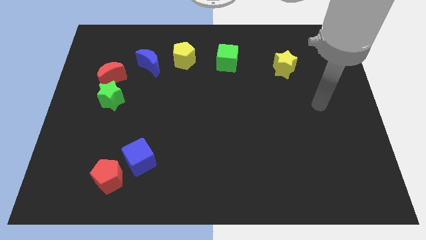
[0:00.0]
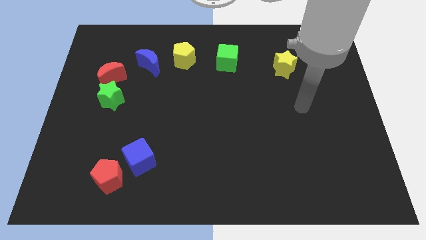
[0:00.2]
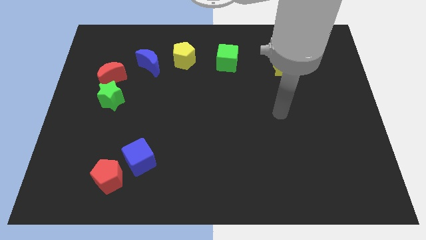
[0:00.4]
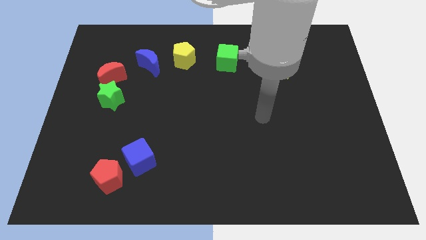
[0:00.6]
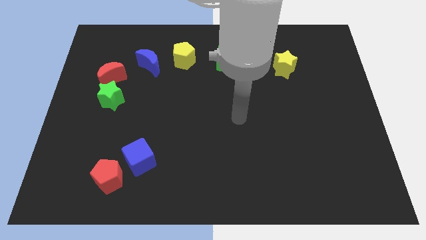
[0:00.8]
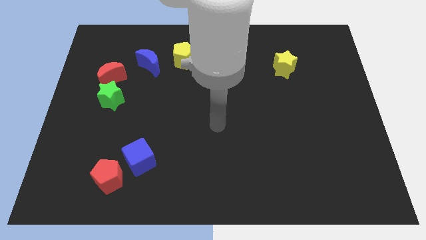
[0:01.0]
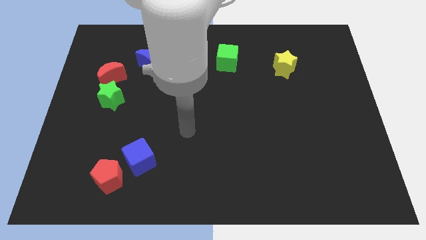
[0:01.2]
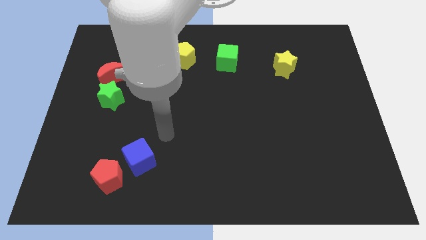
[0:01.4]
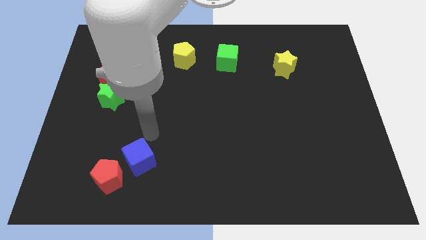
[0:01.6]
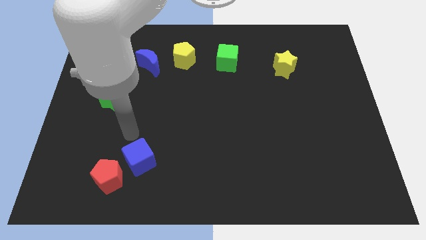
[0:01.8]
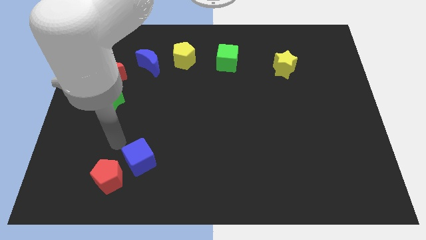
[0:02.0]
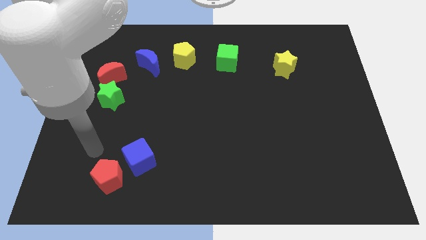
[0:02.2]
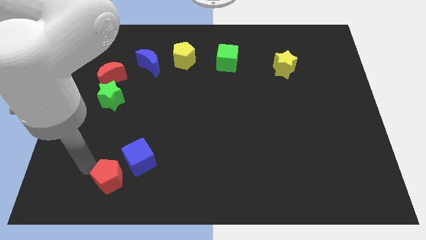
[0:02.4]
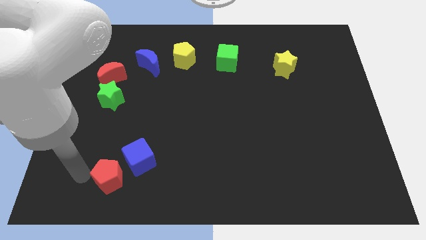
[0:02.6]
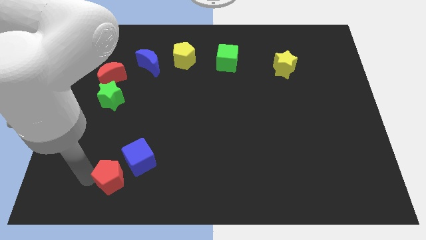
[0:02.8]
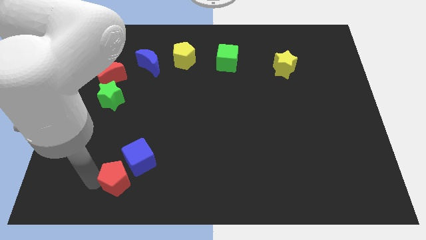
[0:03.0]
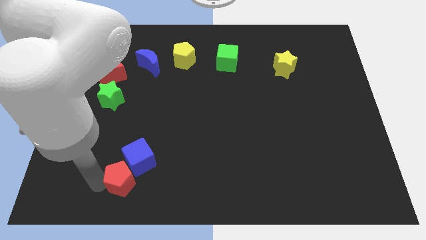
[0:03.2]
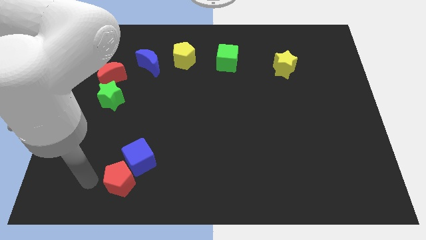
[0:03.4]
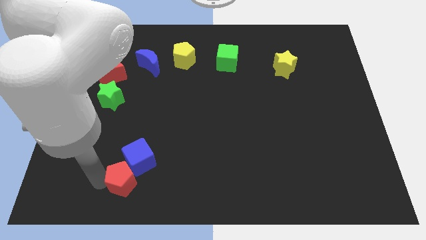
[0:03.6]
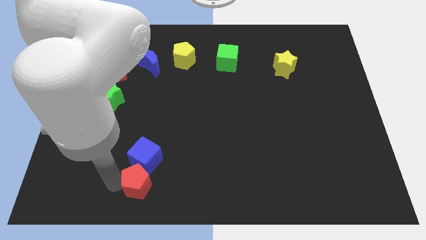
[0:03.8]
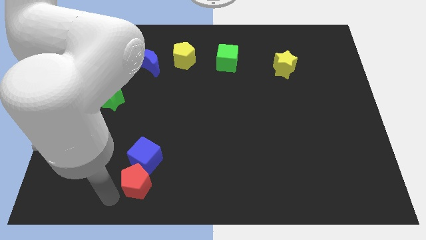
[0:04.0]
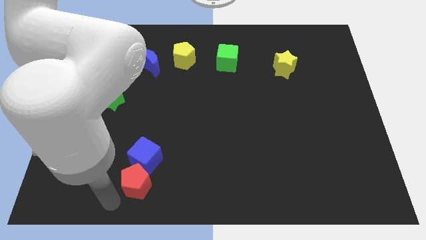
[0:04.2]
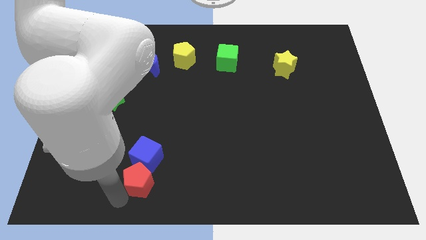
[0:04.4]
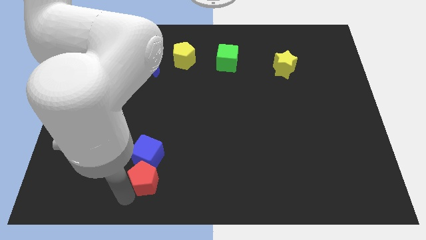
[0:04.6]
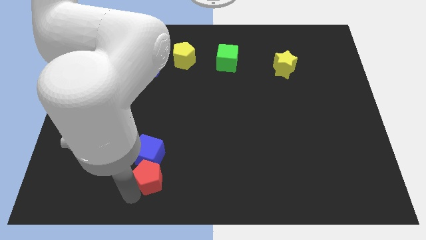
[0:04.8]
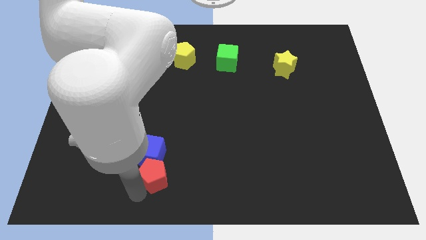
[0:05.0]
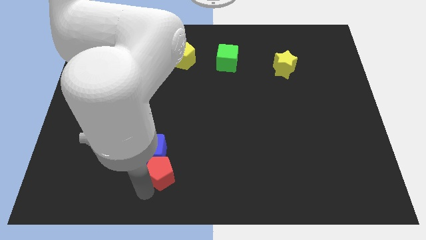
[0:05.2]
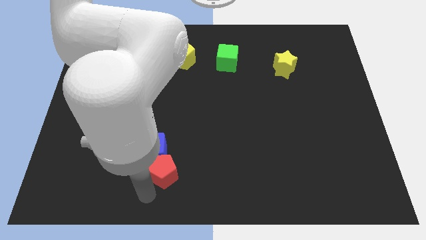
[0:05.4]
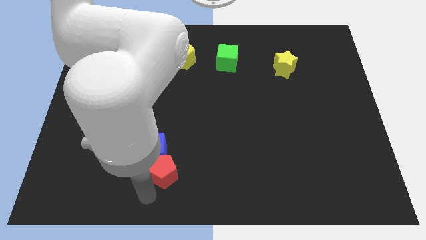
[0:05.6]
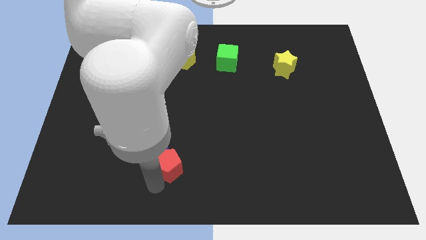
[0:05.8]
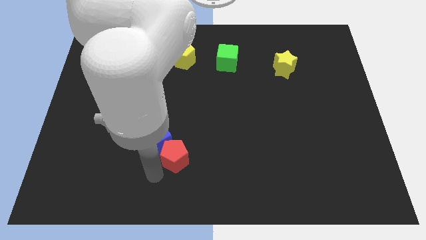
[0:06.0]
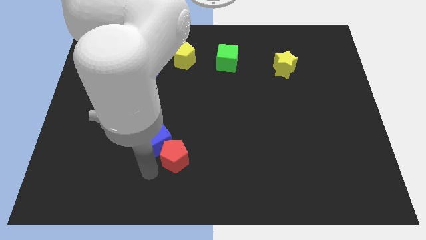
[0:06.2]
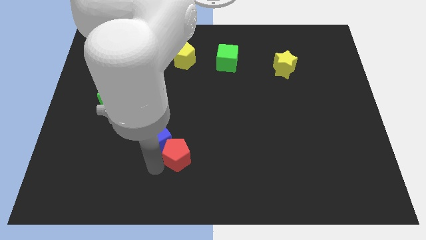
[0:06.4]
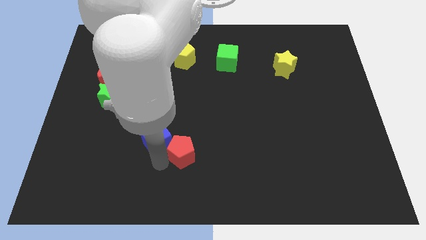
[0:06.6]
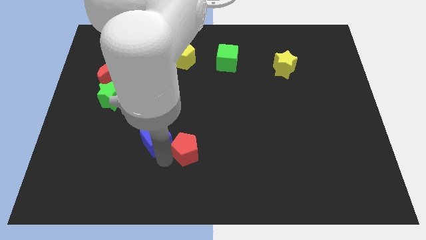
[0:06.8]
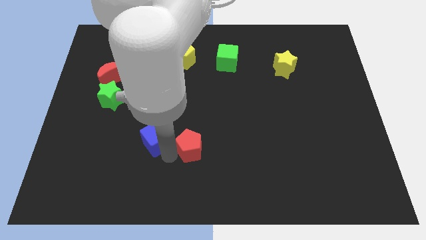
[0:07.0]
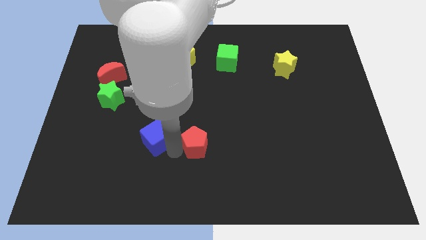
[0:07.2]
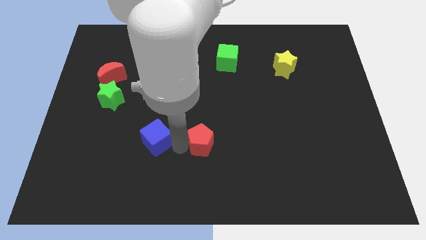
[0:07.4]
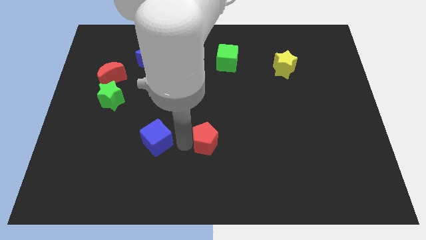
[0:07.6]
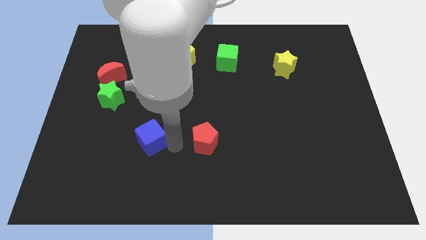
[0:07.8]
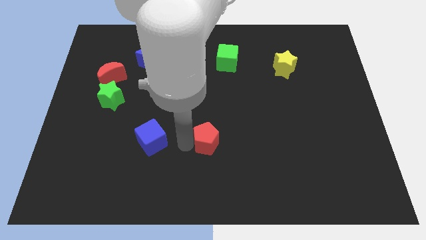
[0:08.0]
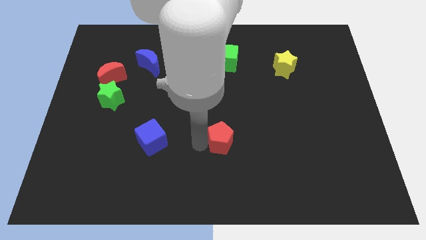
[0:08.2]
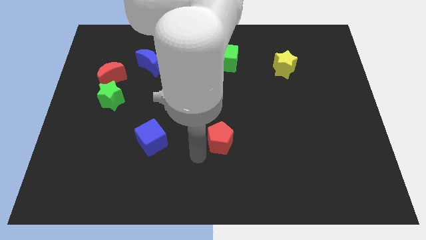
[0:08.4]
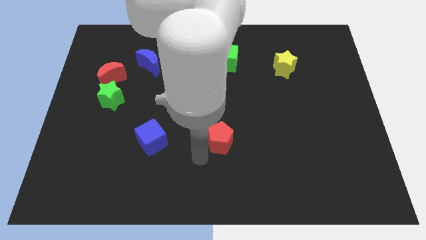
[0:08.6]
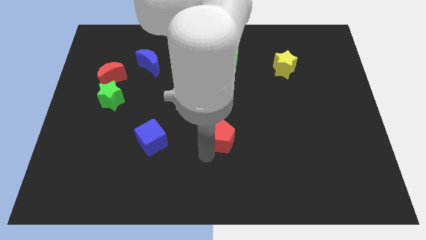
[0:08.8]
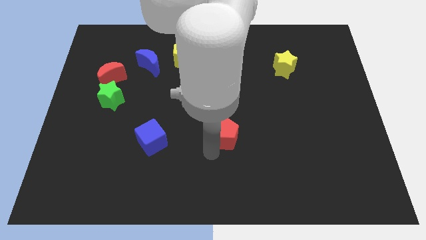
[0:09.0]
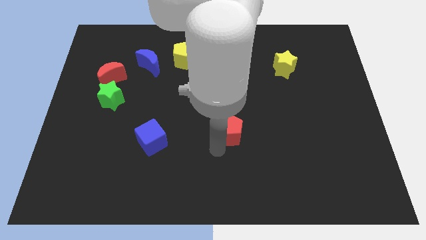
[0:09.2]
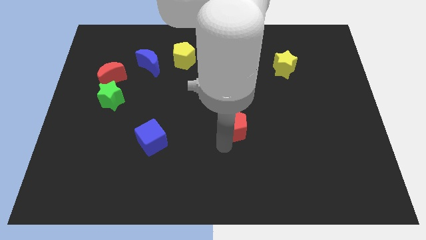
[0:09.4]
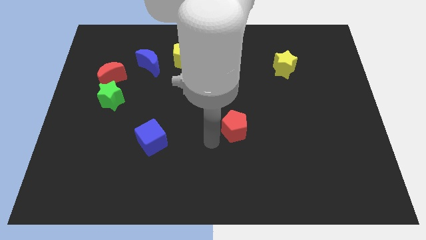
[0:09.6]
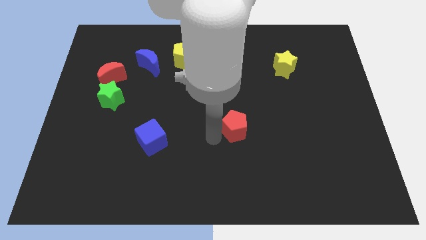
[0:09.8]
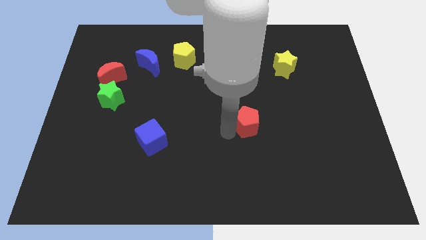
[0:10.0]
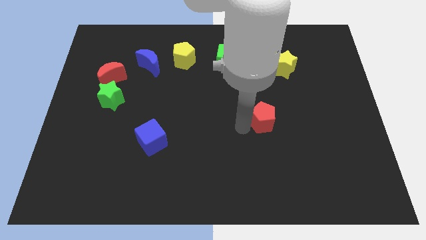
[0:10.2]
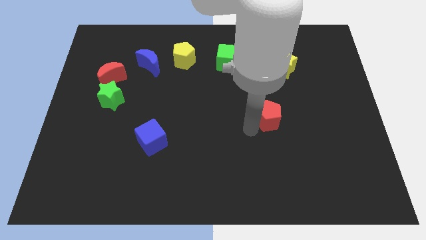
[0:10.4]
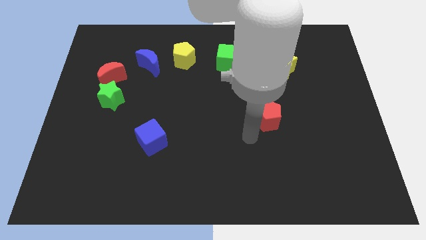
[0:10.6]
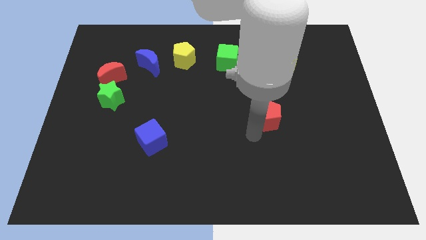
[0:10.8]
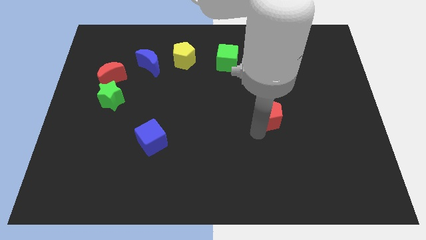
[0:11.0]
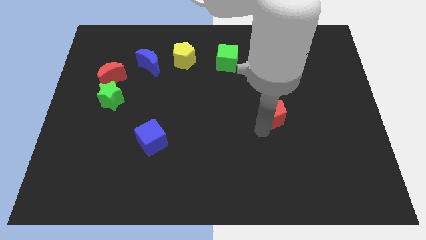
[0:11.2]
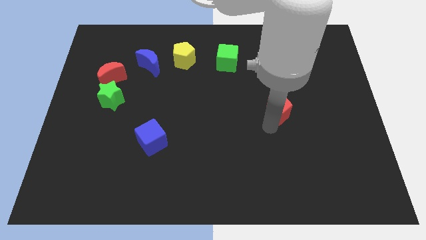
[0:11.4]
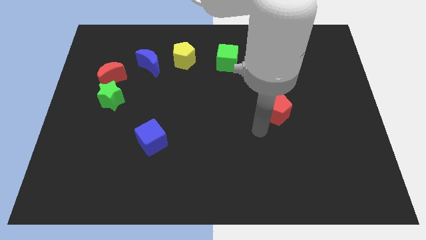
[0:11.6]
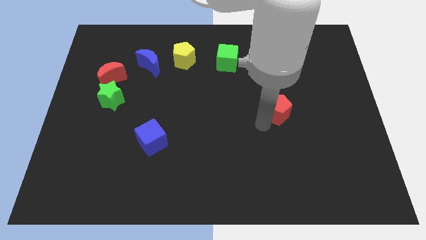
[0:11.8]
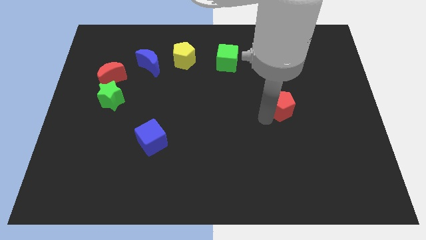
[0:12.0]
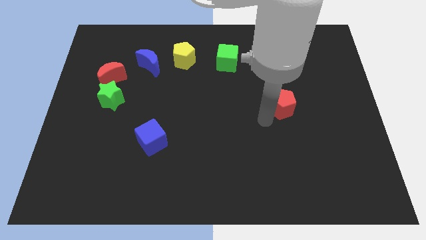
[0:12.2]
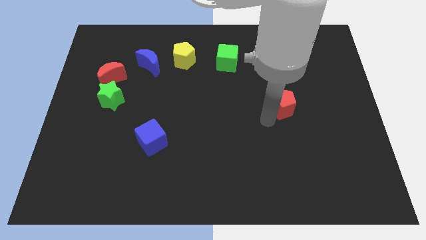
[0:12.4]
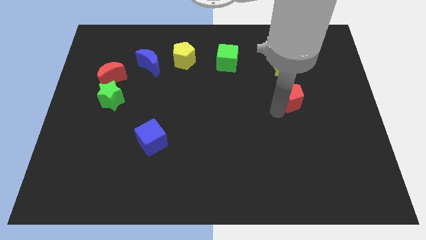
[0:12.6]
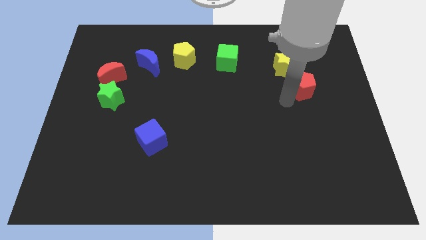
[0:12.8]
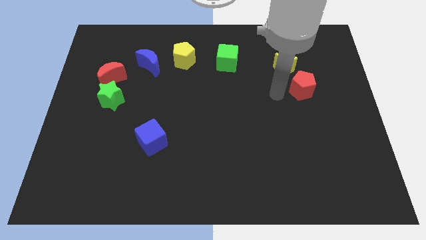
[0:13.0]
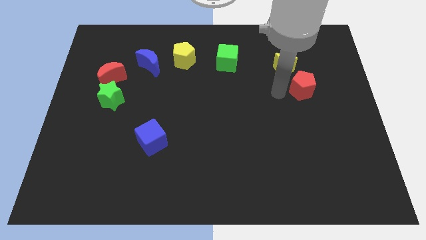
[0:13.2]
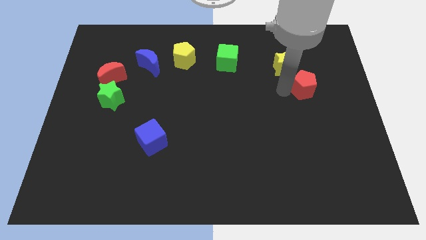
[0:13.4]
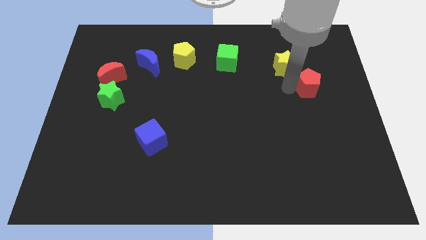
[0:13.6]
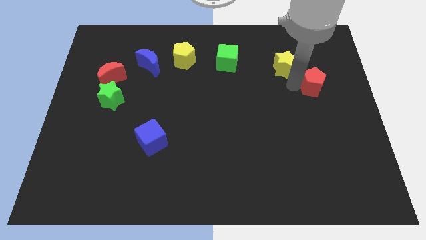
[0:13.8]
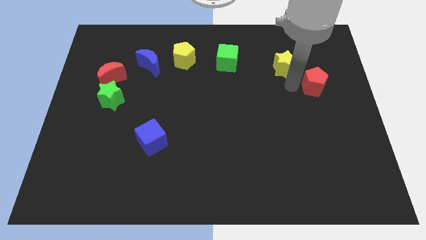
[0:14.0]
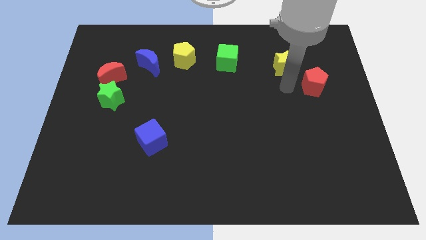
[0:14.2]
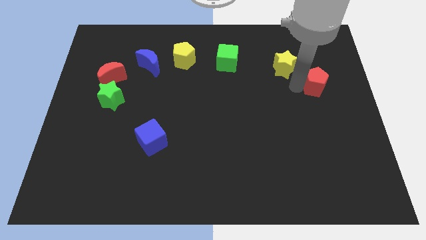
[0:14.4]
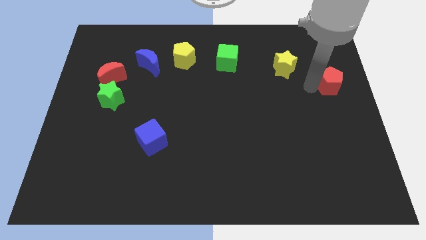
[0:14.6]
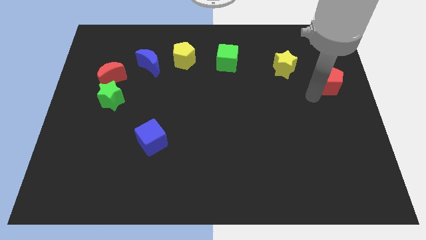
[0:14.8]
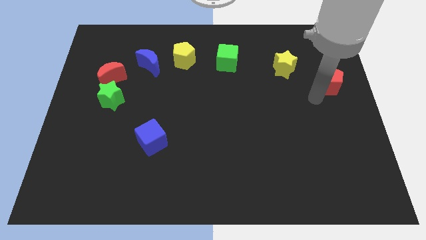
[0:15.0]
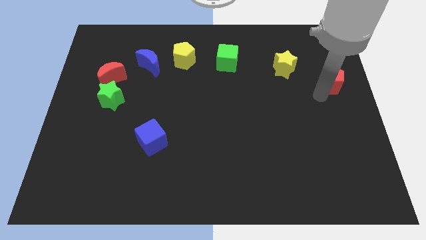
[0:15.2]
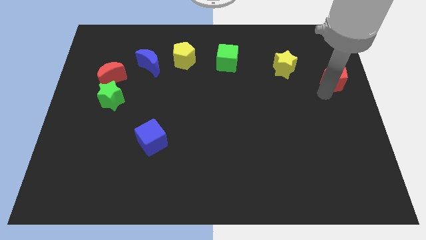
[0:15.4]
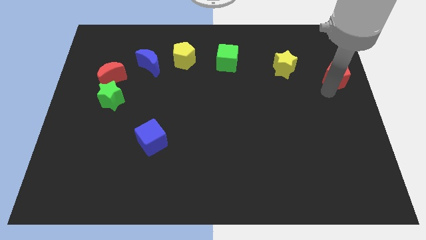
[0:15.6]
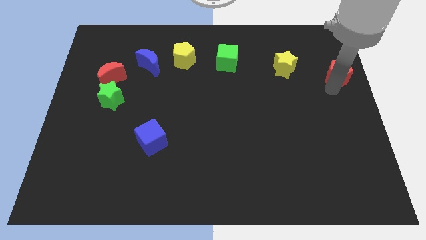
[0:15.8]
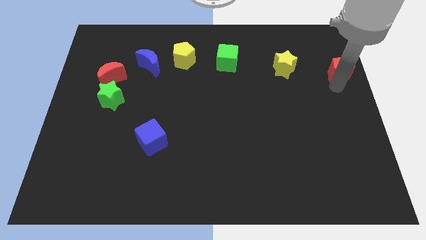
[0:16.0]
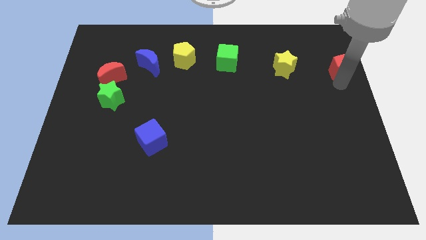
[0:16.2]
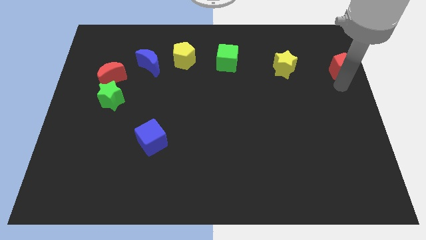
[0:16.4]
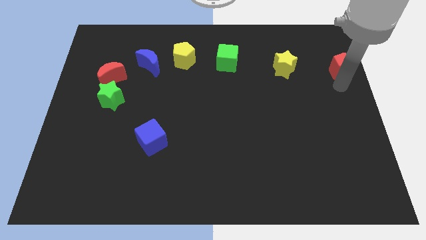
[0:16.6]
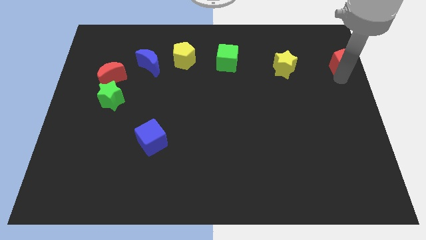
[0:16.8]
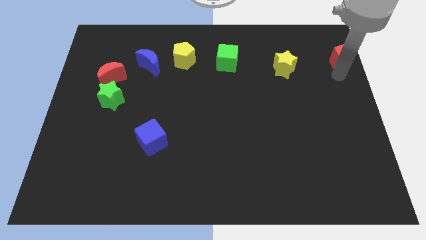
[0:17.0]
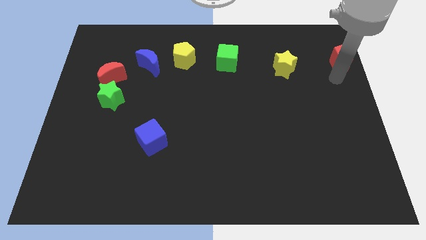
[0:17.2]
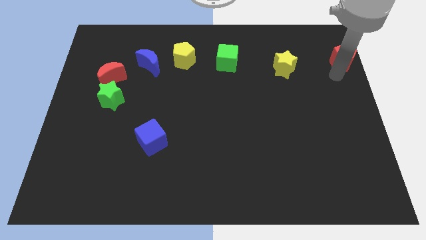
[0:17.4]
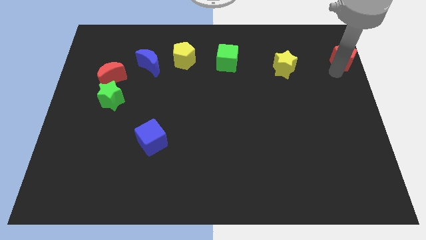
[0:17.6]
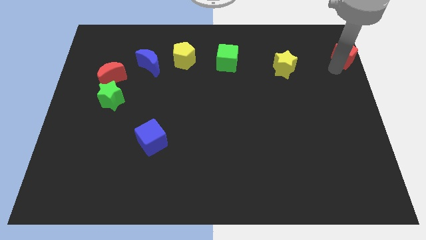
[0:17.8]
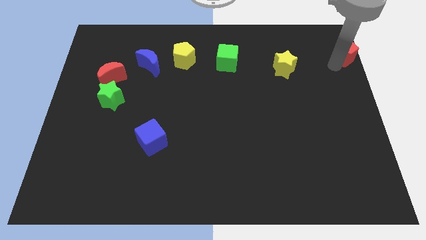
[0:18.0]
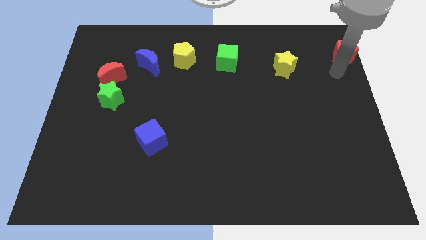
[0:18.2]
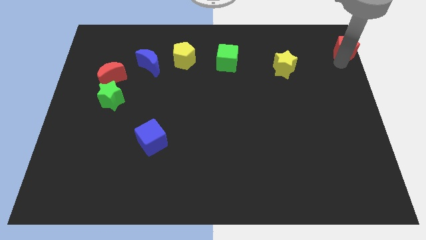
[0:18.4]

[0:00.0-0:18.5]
push the red pentagon to the top right
